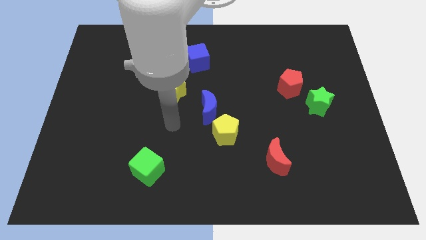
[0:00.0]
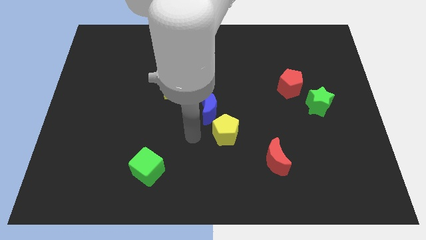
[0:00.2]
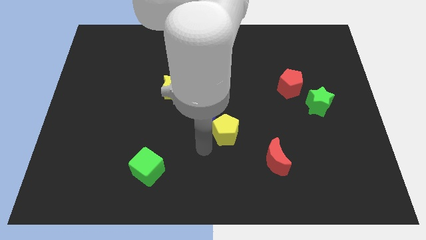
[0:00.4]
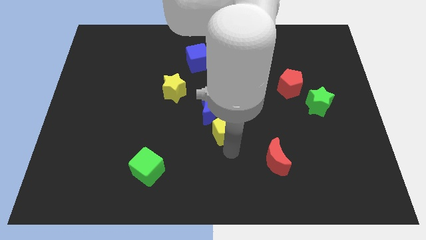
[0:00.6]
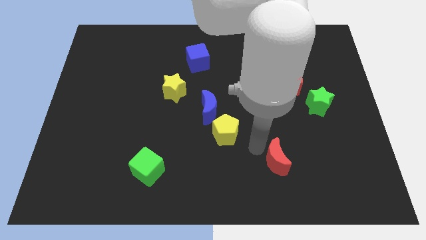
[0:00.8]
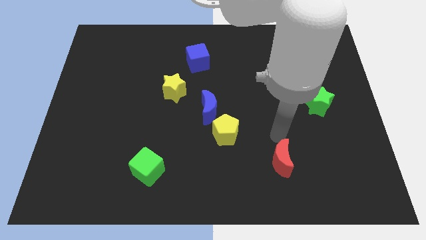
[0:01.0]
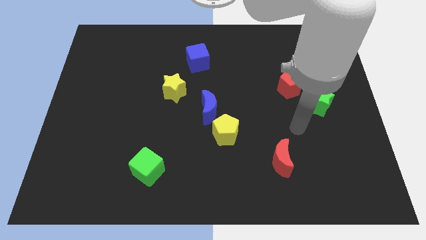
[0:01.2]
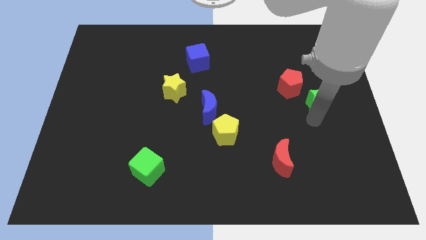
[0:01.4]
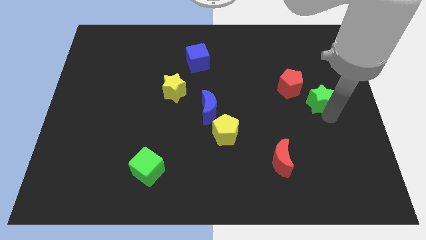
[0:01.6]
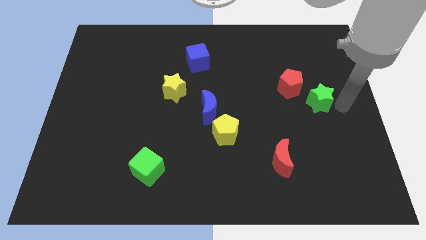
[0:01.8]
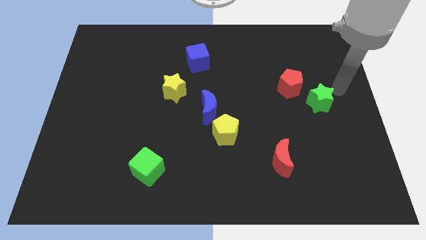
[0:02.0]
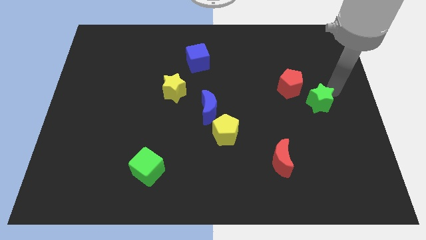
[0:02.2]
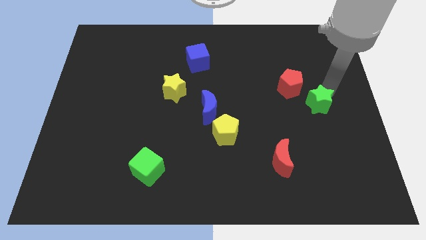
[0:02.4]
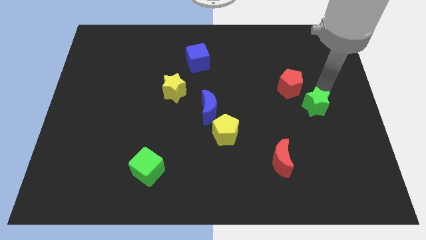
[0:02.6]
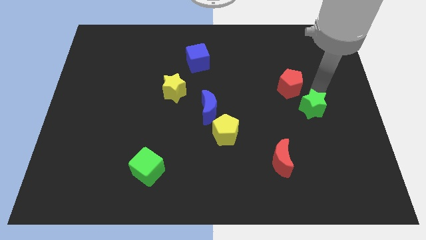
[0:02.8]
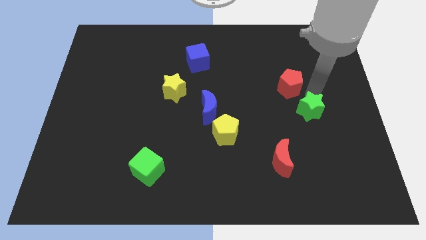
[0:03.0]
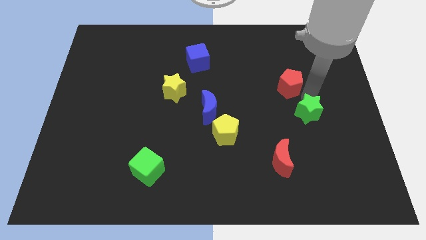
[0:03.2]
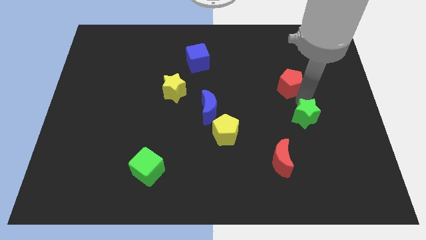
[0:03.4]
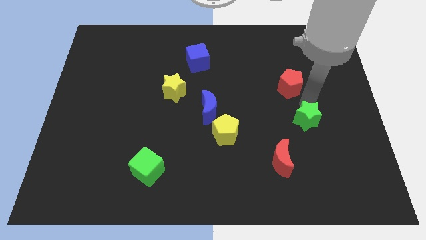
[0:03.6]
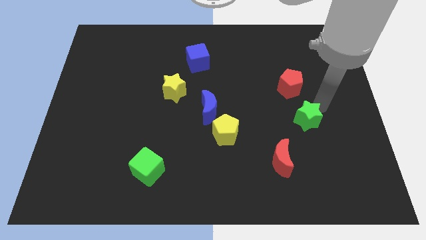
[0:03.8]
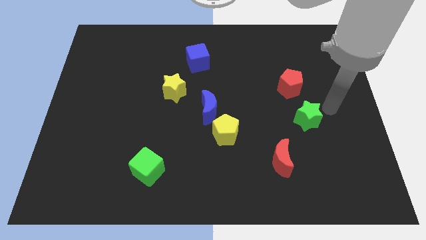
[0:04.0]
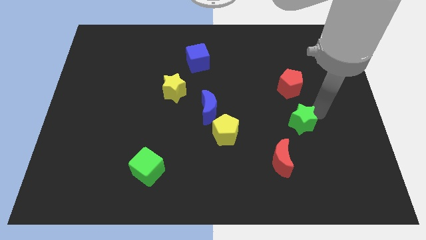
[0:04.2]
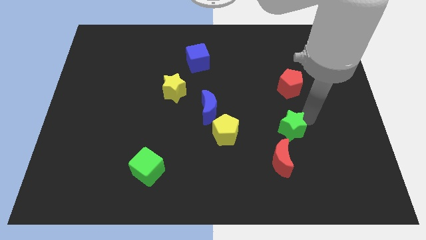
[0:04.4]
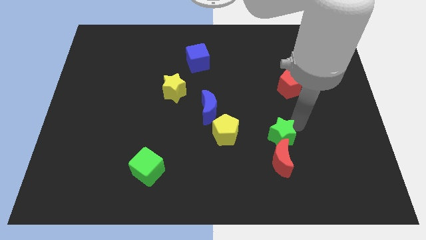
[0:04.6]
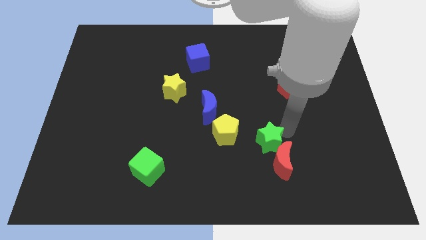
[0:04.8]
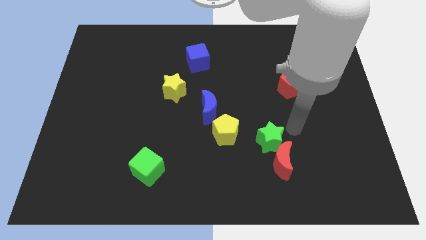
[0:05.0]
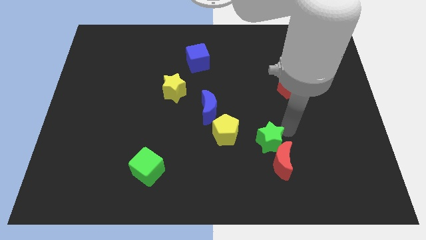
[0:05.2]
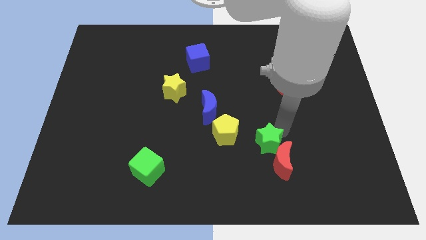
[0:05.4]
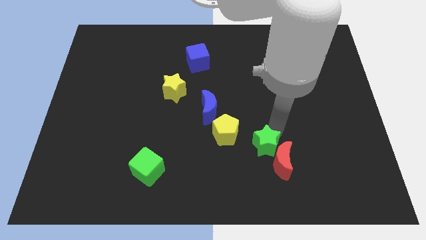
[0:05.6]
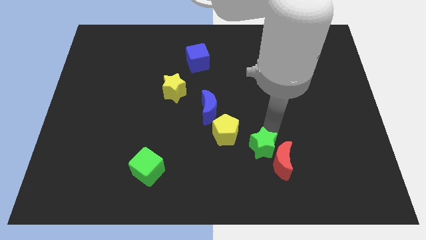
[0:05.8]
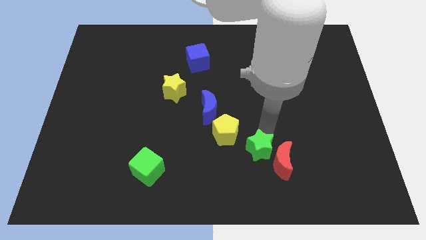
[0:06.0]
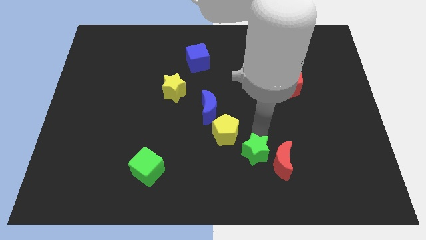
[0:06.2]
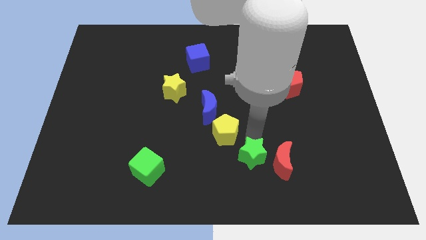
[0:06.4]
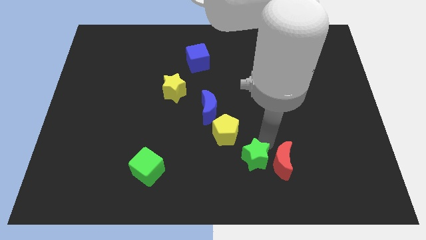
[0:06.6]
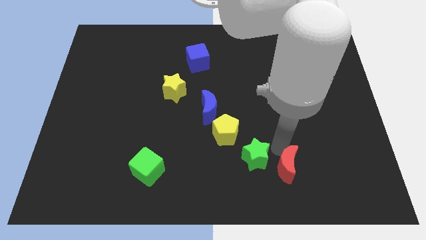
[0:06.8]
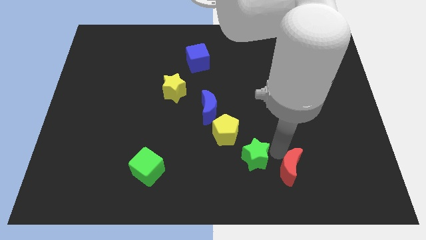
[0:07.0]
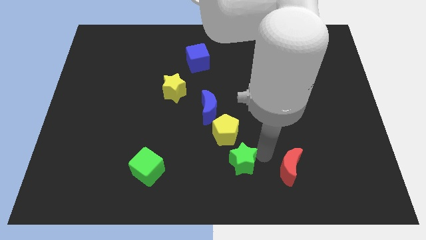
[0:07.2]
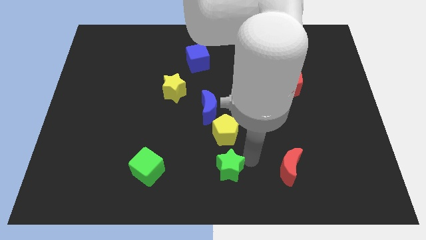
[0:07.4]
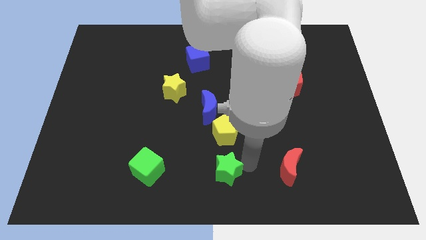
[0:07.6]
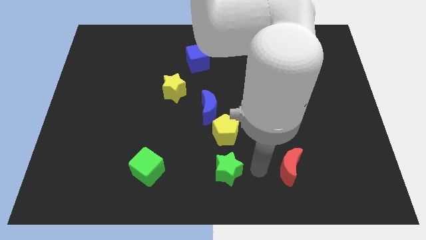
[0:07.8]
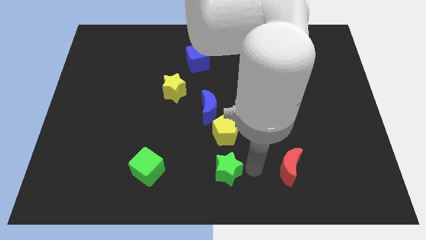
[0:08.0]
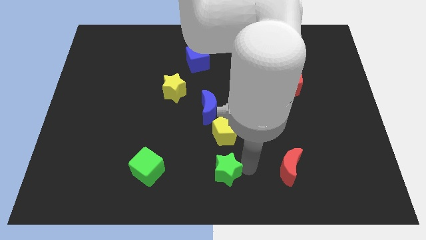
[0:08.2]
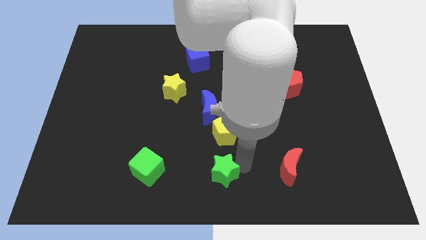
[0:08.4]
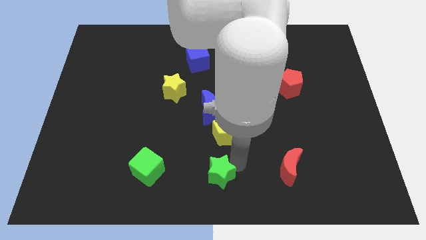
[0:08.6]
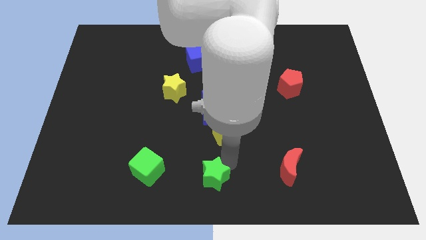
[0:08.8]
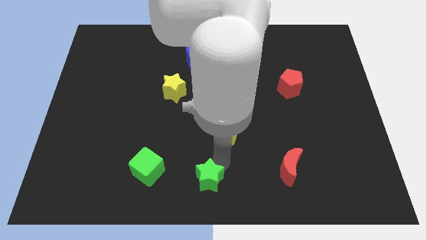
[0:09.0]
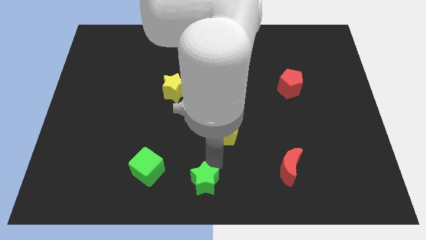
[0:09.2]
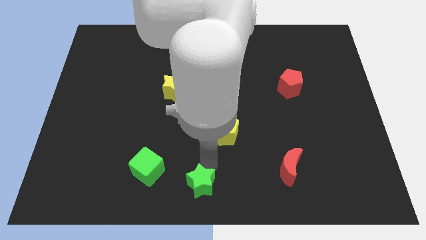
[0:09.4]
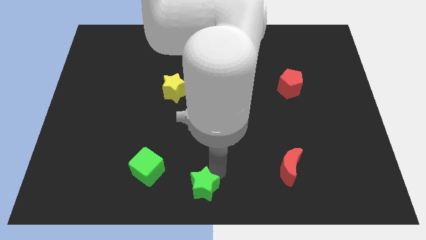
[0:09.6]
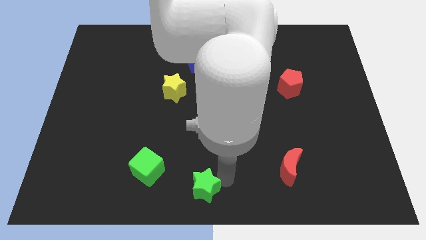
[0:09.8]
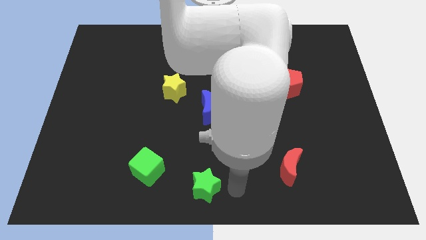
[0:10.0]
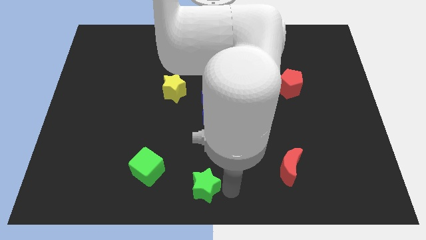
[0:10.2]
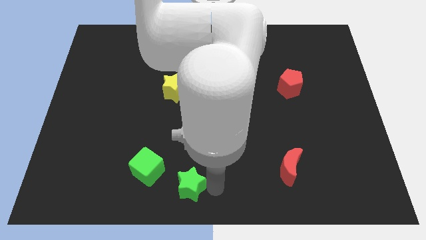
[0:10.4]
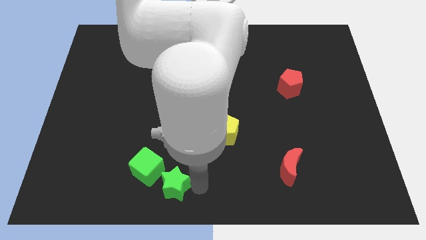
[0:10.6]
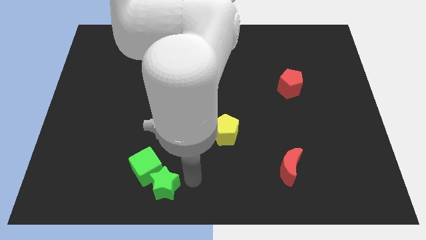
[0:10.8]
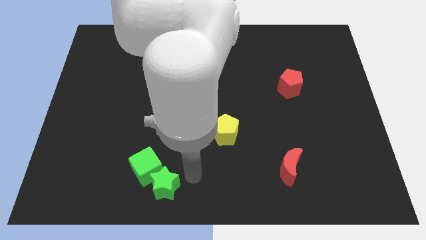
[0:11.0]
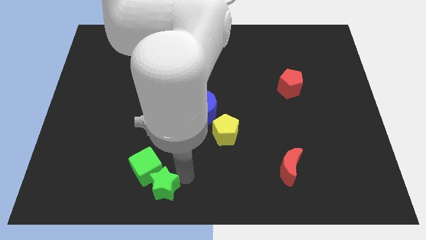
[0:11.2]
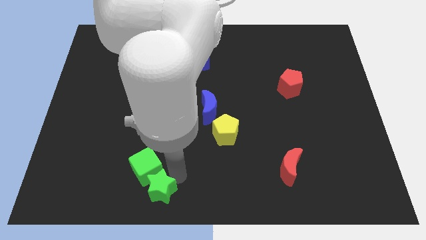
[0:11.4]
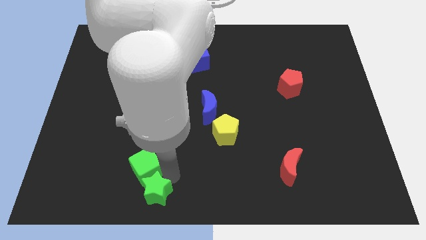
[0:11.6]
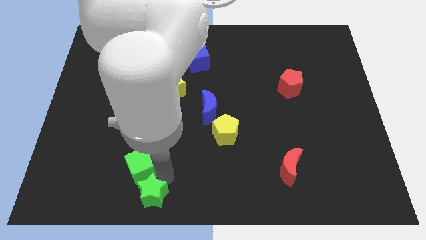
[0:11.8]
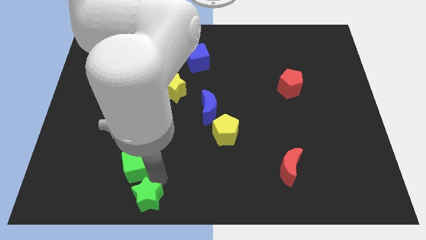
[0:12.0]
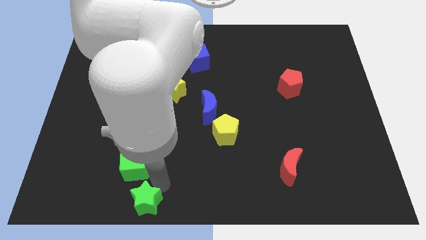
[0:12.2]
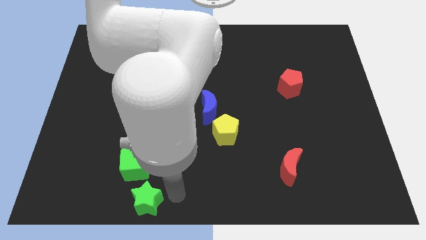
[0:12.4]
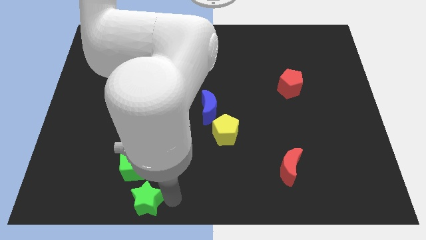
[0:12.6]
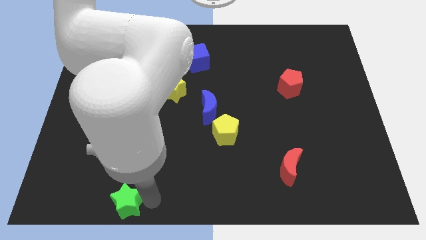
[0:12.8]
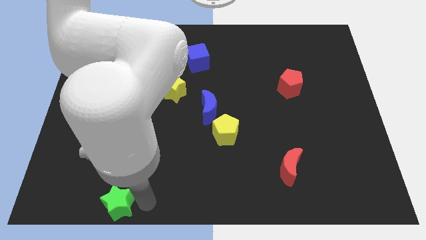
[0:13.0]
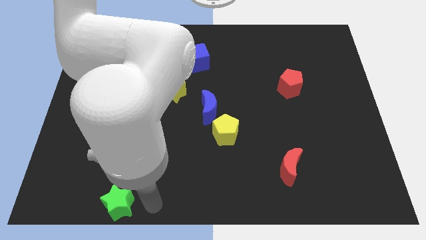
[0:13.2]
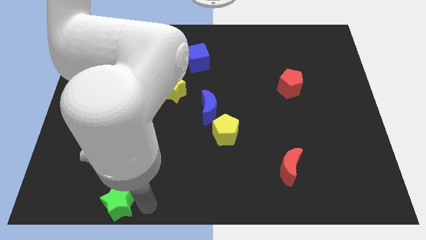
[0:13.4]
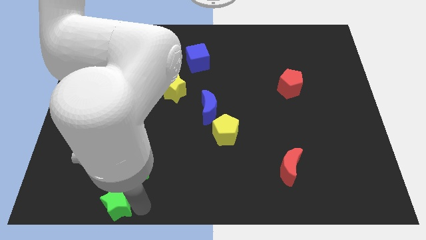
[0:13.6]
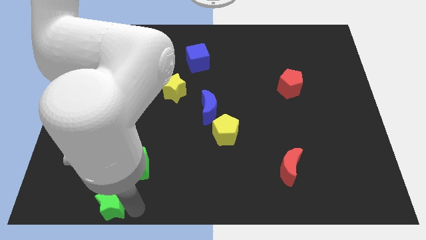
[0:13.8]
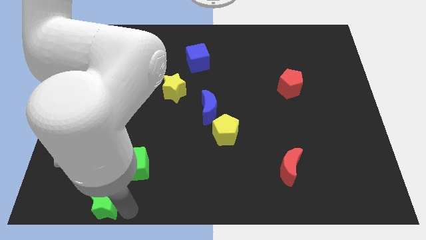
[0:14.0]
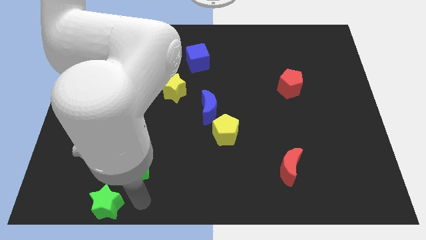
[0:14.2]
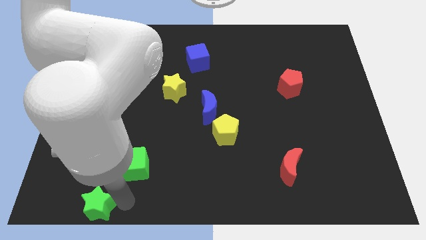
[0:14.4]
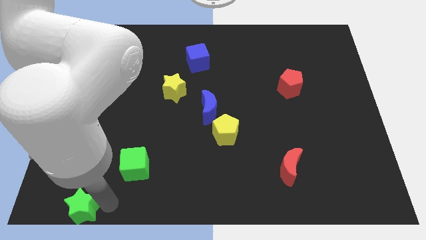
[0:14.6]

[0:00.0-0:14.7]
push the green star to the bottom left corner
